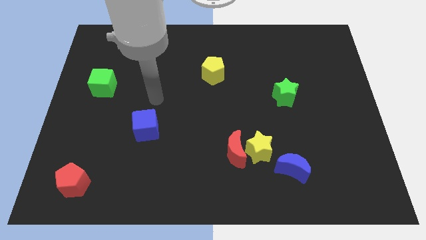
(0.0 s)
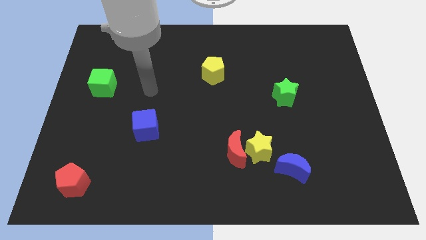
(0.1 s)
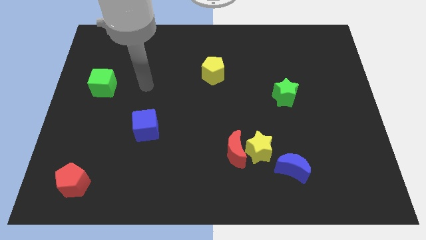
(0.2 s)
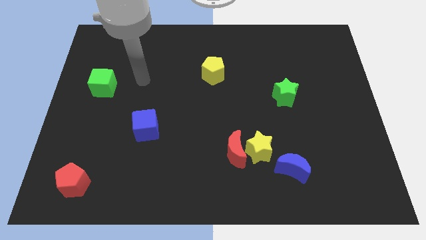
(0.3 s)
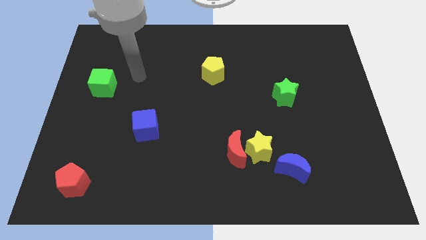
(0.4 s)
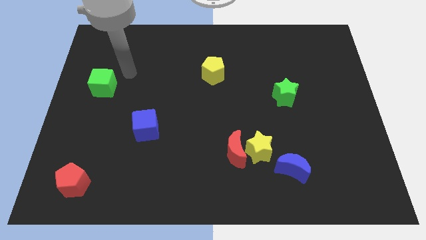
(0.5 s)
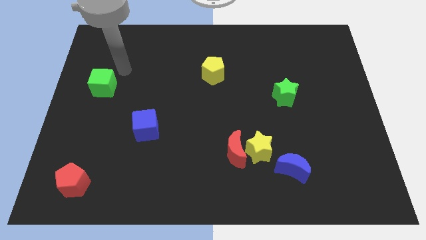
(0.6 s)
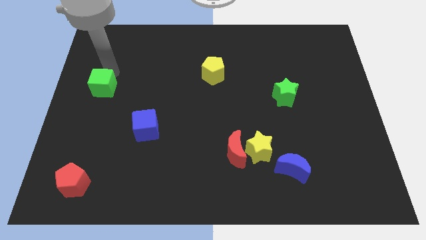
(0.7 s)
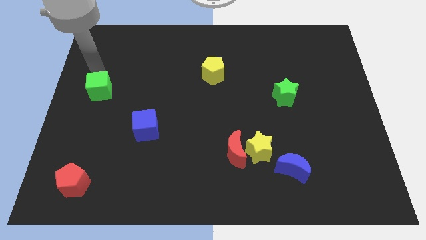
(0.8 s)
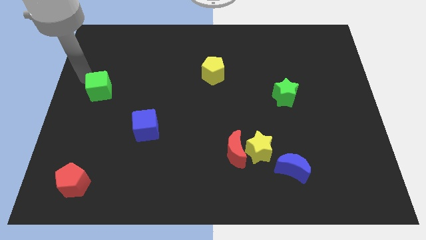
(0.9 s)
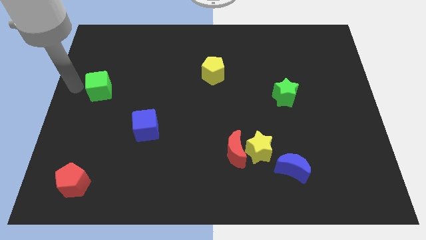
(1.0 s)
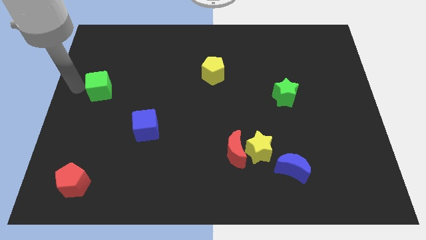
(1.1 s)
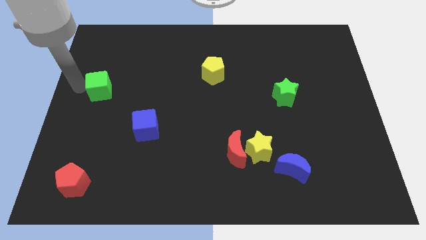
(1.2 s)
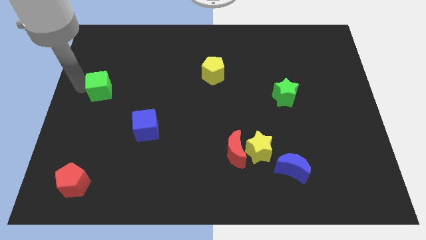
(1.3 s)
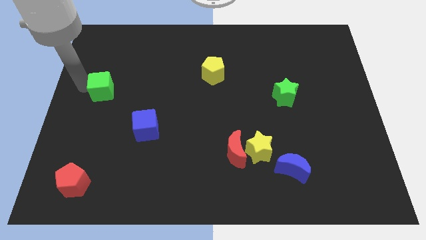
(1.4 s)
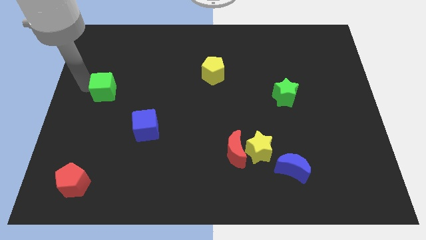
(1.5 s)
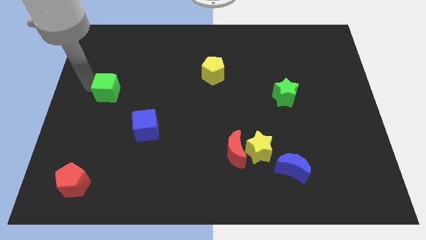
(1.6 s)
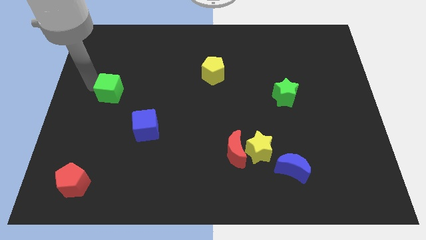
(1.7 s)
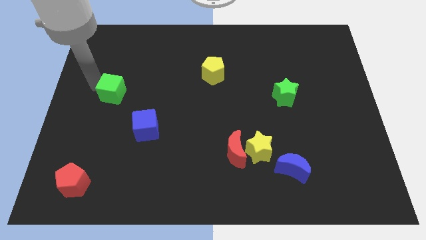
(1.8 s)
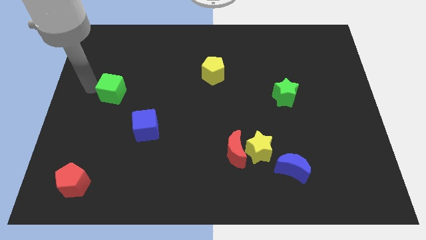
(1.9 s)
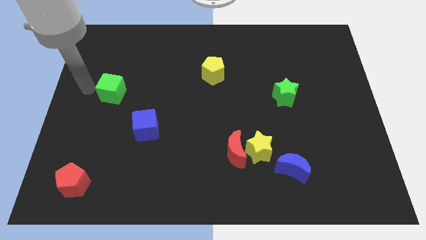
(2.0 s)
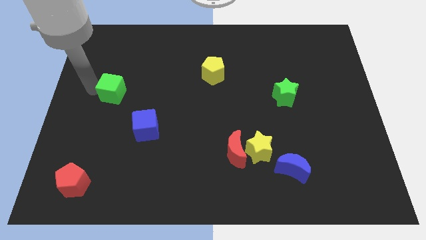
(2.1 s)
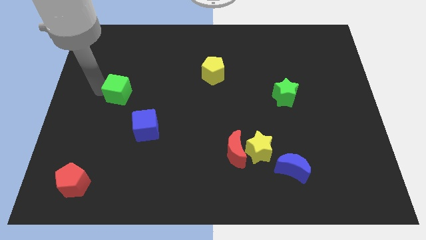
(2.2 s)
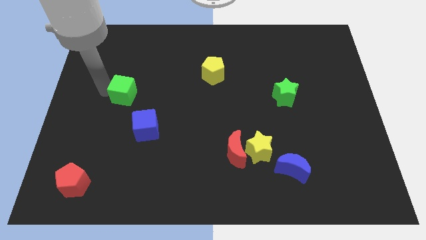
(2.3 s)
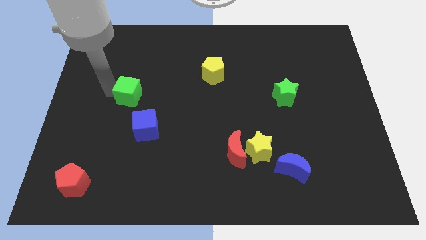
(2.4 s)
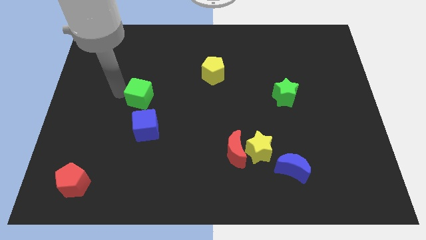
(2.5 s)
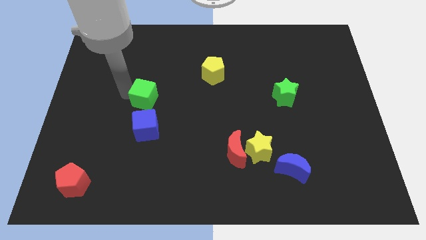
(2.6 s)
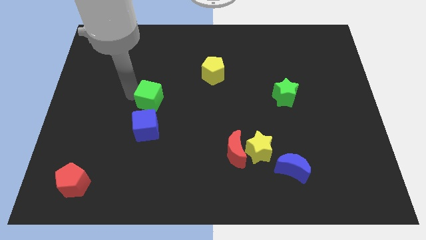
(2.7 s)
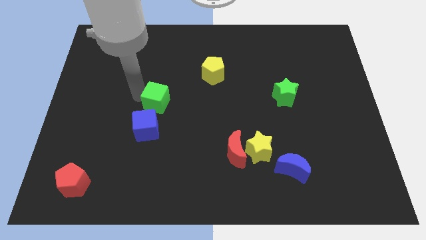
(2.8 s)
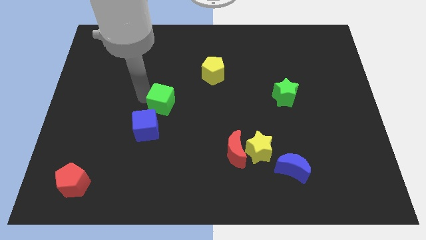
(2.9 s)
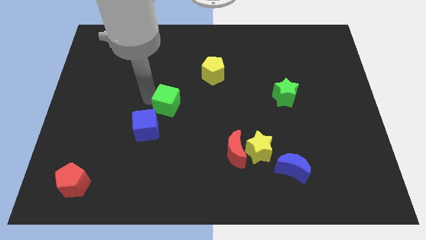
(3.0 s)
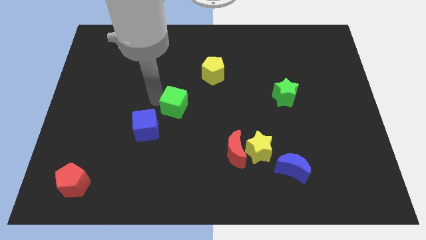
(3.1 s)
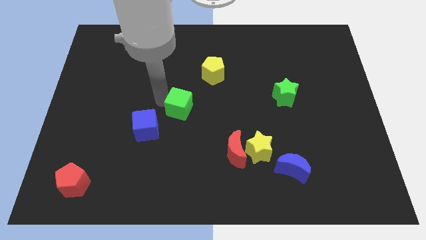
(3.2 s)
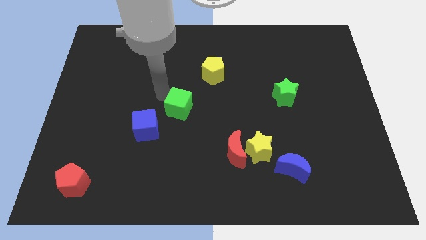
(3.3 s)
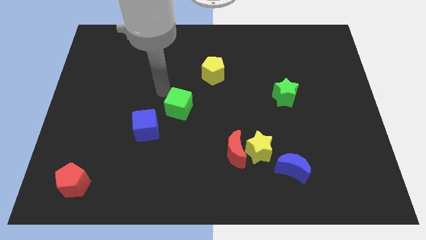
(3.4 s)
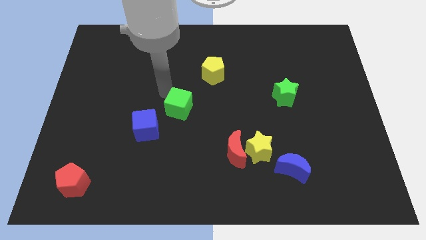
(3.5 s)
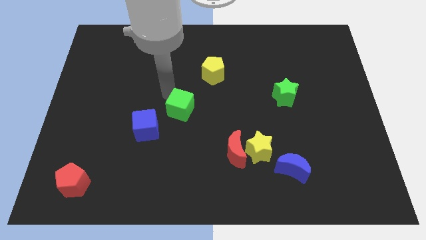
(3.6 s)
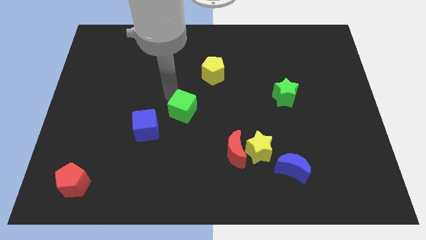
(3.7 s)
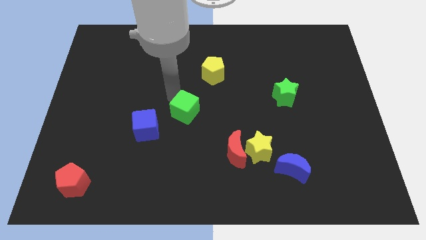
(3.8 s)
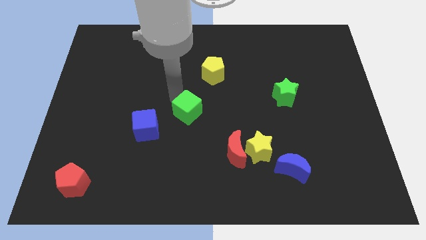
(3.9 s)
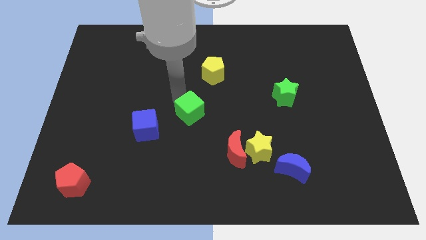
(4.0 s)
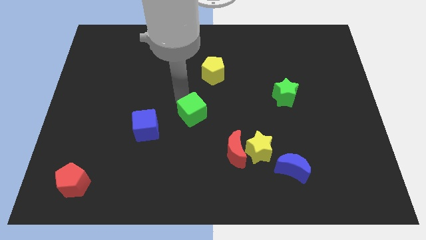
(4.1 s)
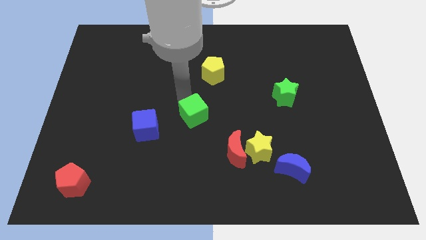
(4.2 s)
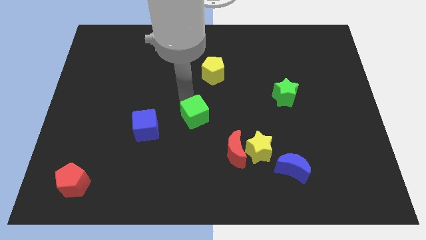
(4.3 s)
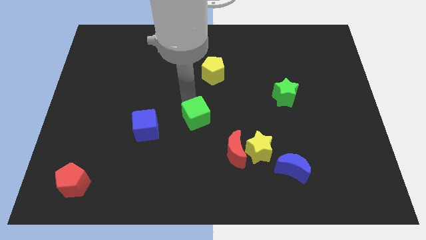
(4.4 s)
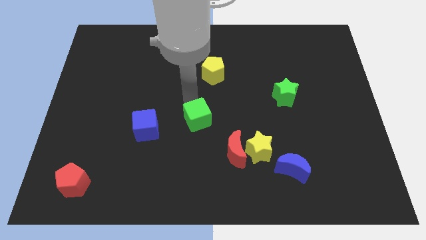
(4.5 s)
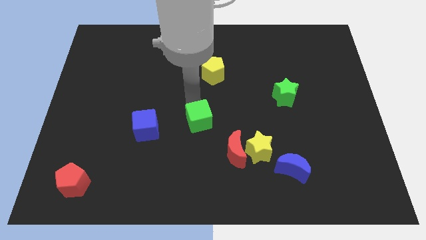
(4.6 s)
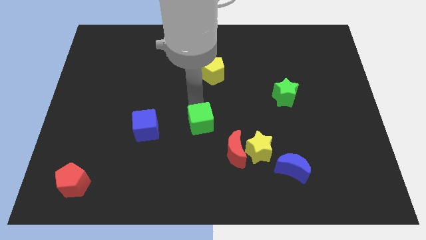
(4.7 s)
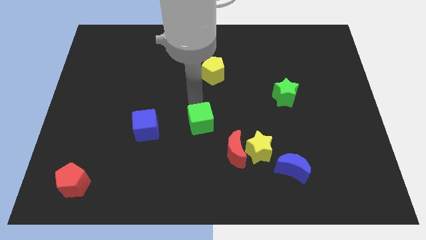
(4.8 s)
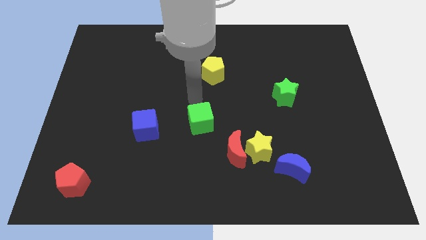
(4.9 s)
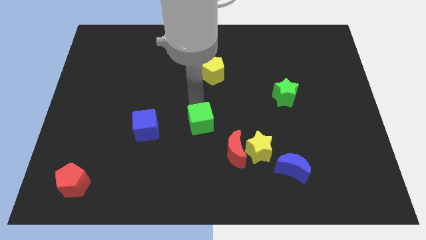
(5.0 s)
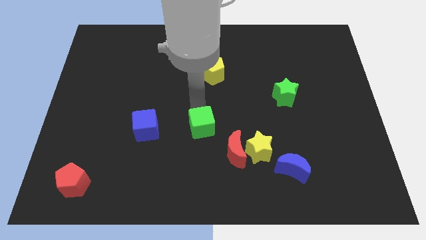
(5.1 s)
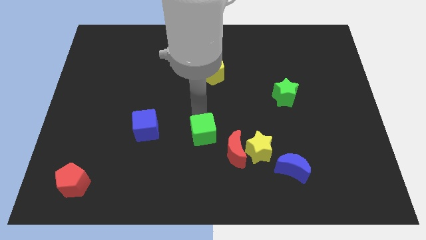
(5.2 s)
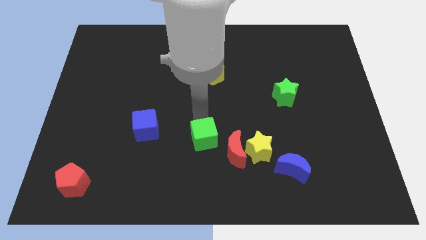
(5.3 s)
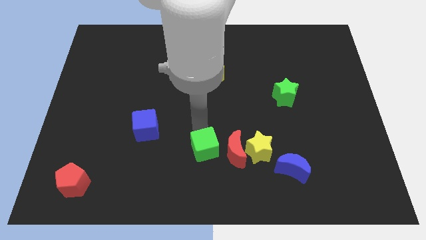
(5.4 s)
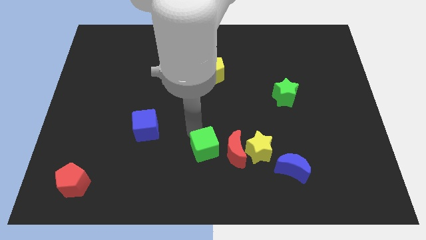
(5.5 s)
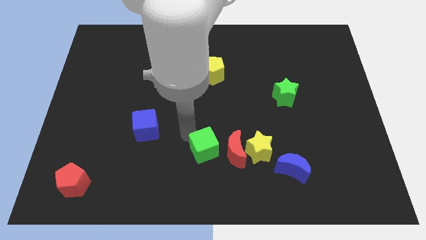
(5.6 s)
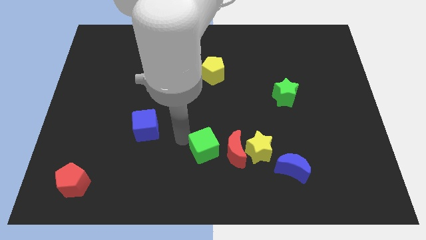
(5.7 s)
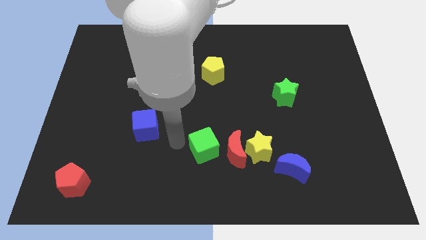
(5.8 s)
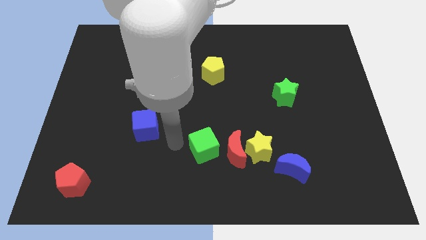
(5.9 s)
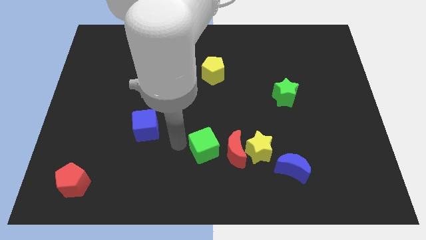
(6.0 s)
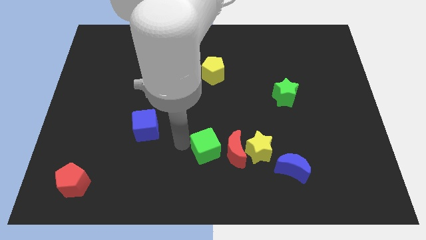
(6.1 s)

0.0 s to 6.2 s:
put the green cube close to the red moon
